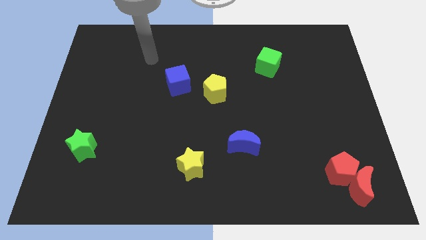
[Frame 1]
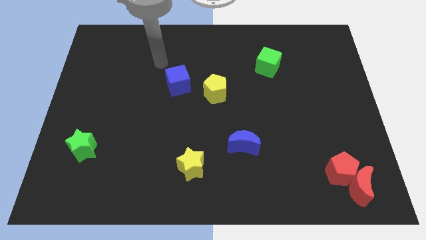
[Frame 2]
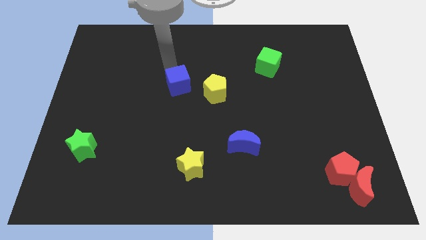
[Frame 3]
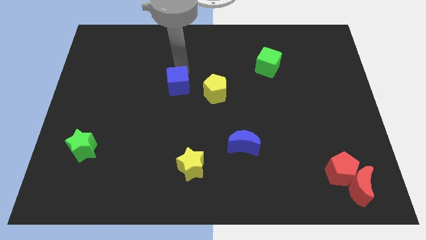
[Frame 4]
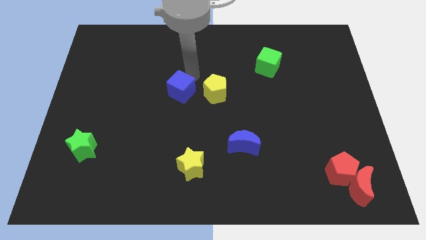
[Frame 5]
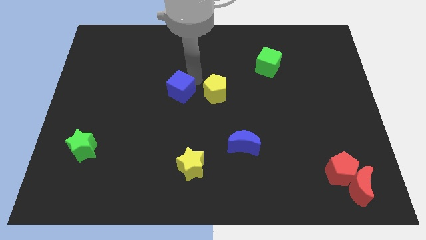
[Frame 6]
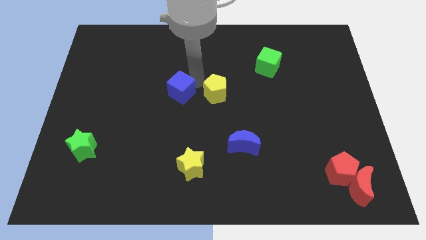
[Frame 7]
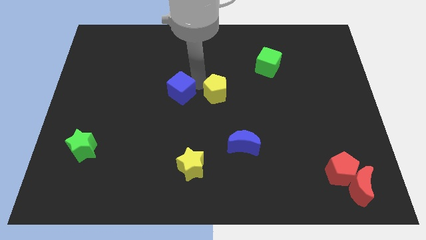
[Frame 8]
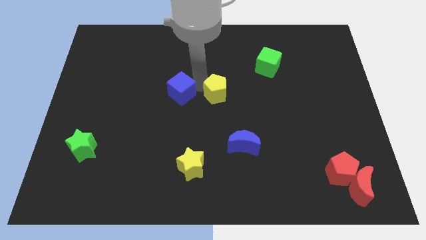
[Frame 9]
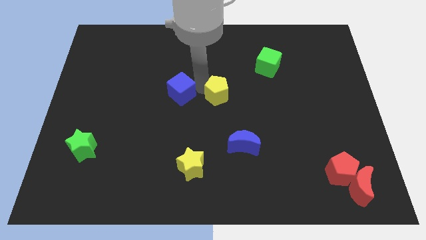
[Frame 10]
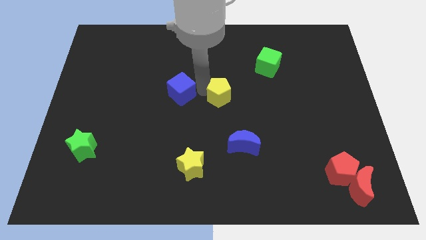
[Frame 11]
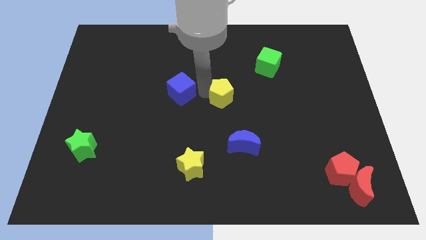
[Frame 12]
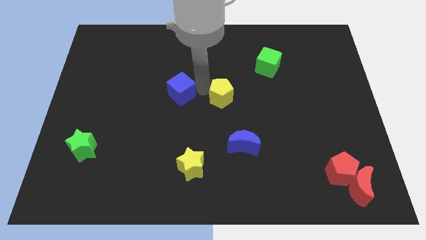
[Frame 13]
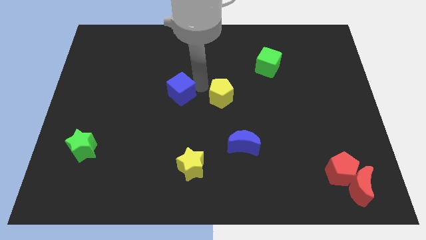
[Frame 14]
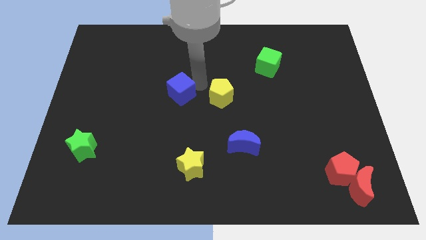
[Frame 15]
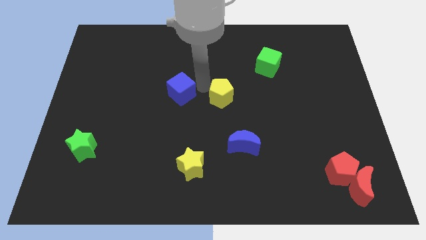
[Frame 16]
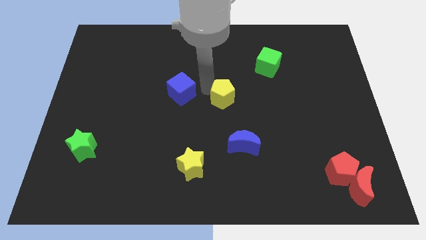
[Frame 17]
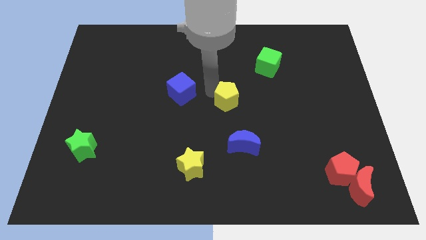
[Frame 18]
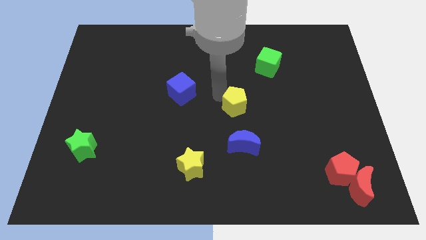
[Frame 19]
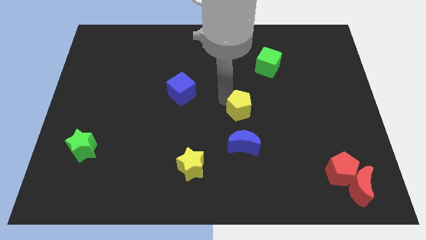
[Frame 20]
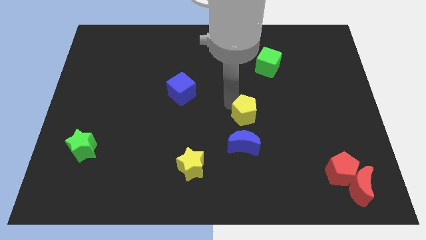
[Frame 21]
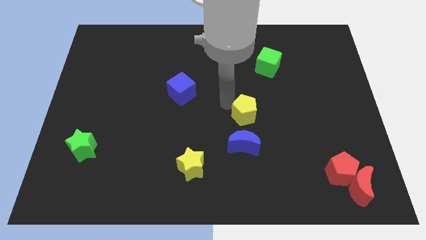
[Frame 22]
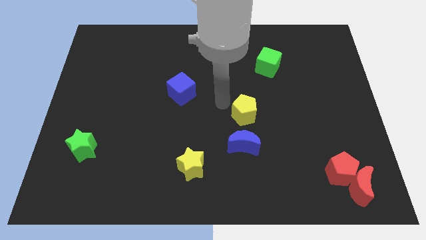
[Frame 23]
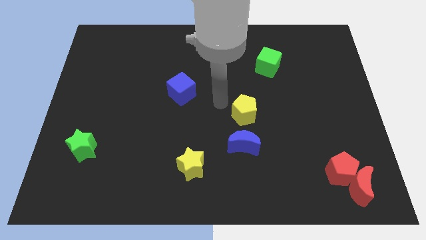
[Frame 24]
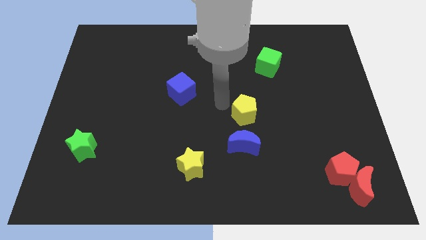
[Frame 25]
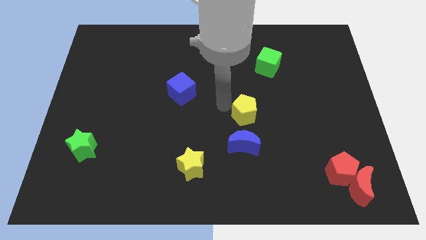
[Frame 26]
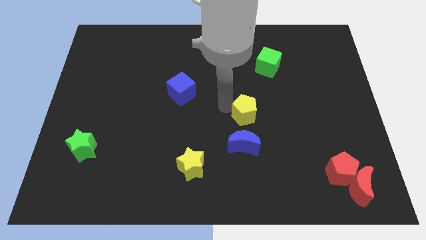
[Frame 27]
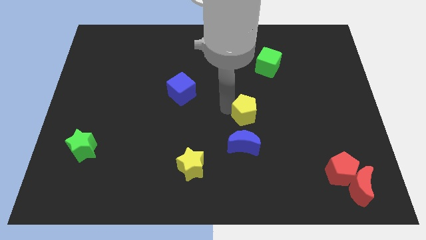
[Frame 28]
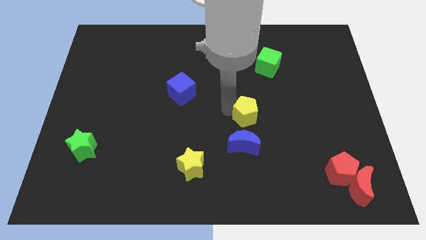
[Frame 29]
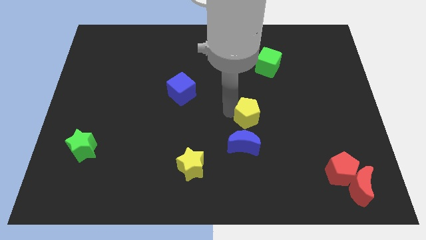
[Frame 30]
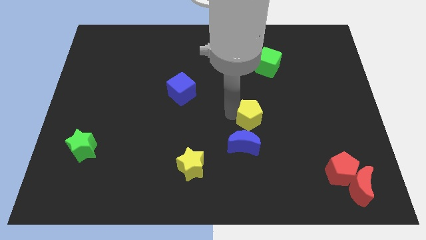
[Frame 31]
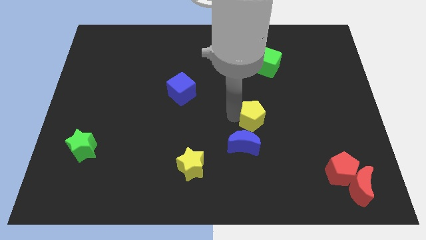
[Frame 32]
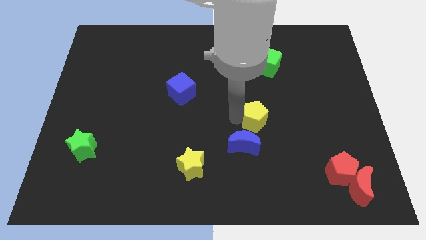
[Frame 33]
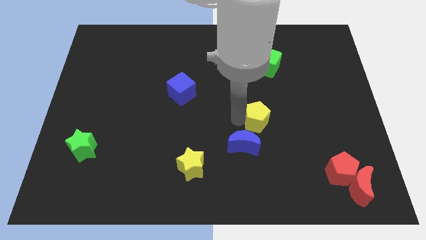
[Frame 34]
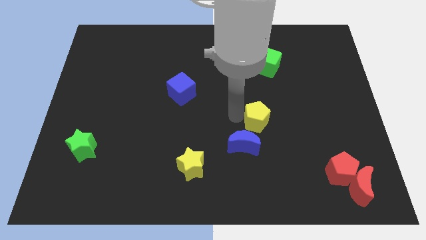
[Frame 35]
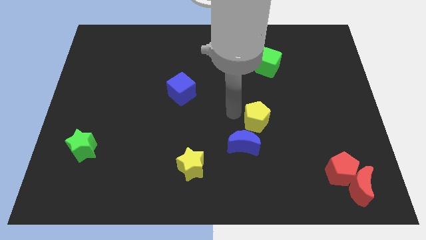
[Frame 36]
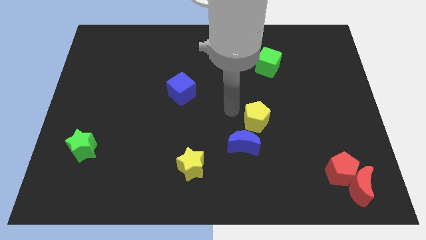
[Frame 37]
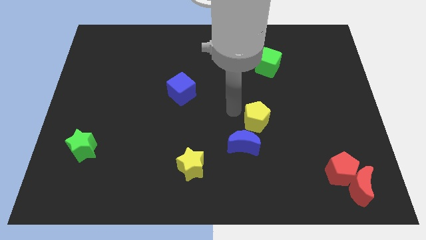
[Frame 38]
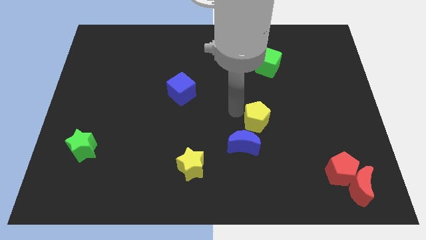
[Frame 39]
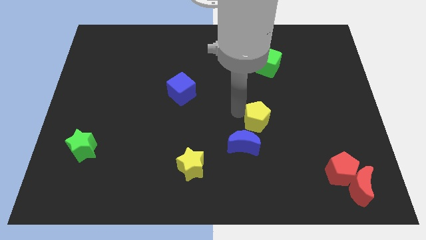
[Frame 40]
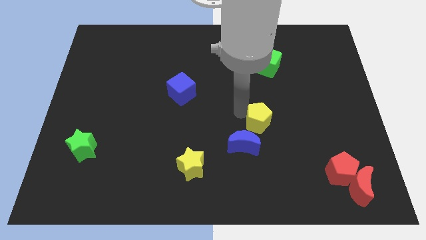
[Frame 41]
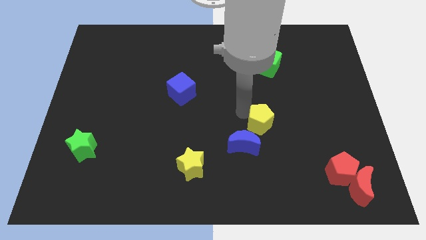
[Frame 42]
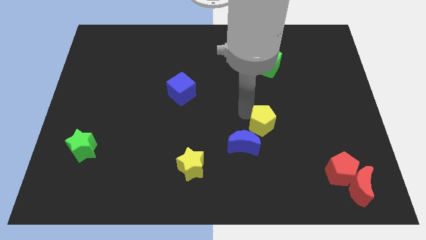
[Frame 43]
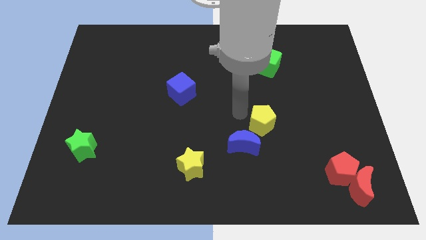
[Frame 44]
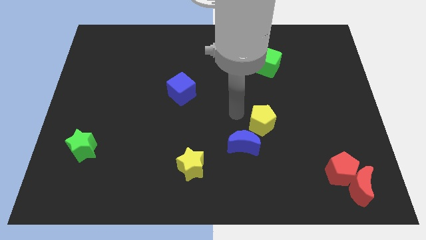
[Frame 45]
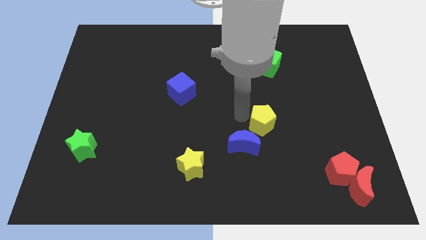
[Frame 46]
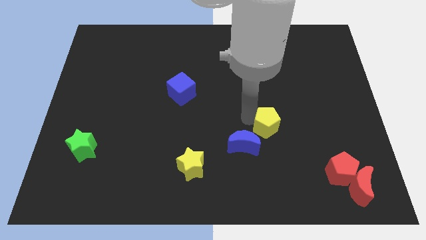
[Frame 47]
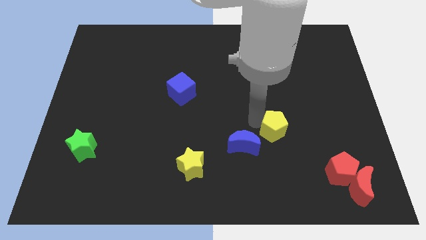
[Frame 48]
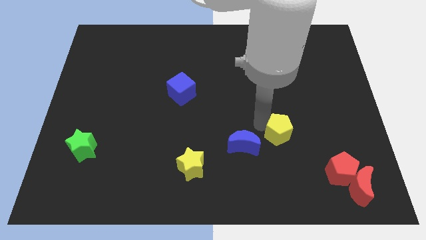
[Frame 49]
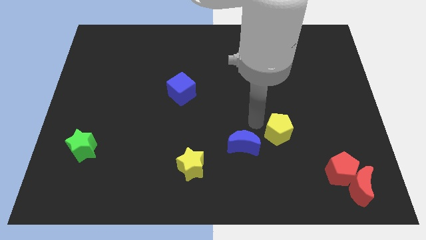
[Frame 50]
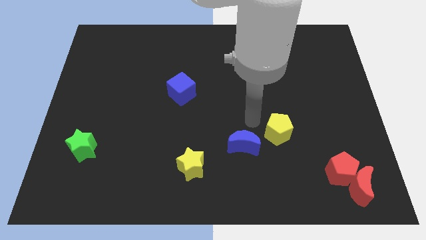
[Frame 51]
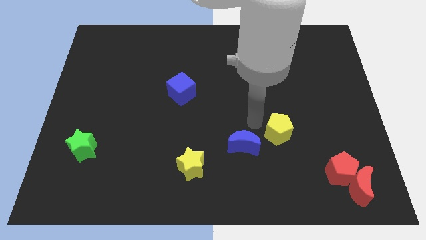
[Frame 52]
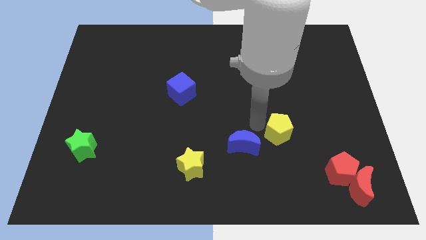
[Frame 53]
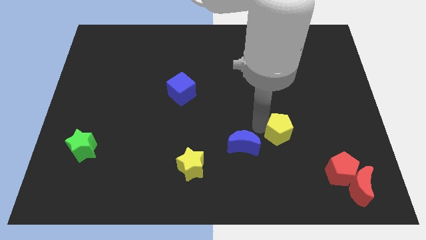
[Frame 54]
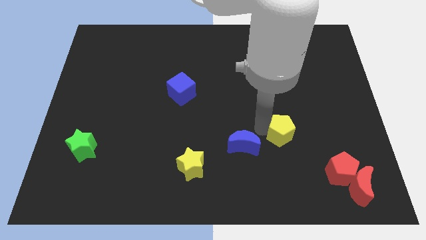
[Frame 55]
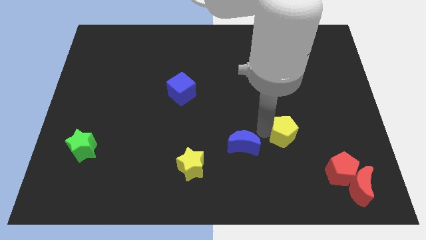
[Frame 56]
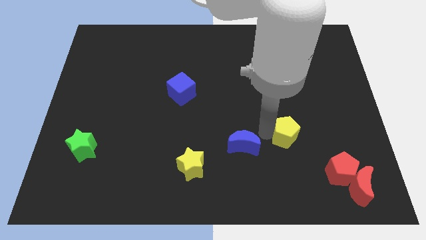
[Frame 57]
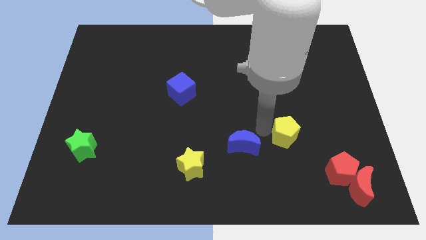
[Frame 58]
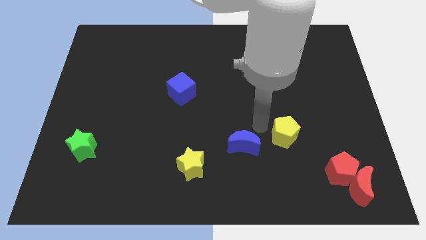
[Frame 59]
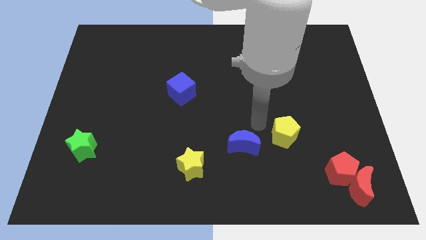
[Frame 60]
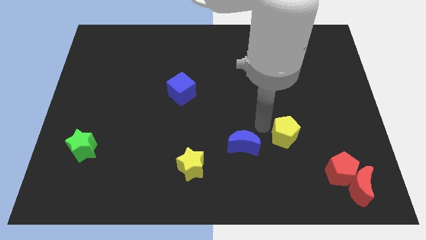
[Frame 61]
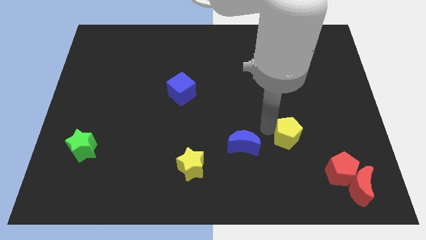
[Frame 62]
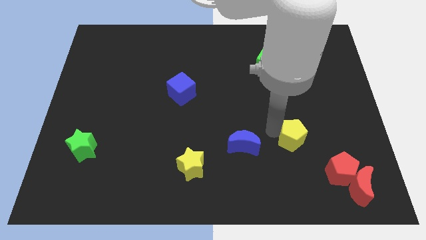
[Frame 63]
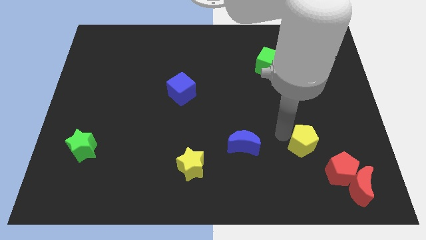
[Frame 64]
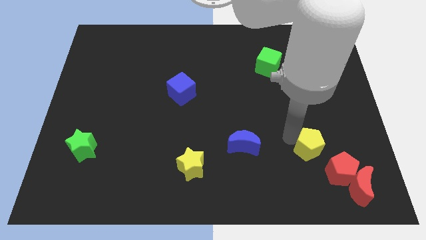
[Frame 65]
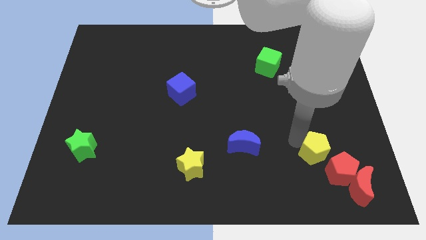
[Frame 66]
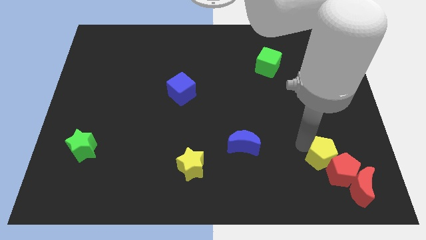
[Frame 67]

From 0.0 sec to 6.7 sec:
push the yellow pentagon to the red pentagon

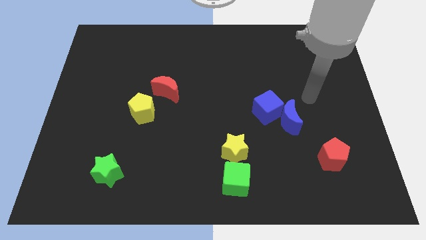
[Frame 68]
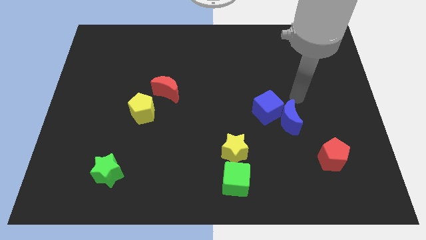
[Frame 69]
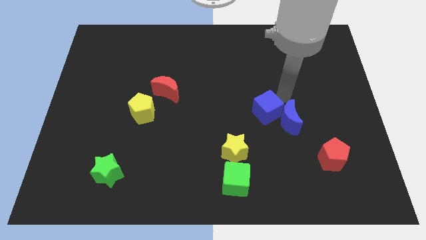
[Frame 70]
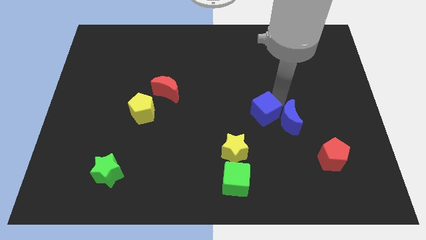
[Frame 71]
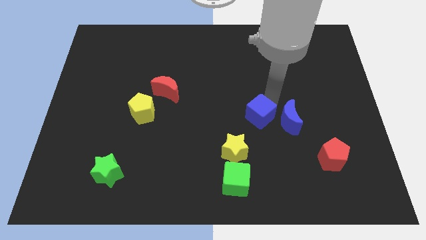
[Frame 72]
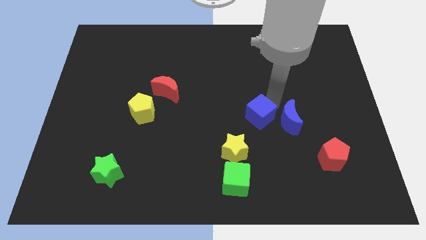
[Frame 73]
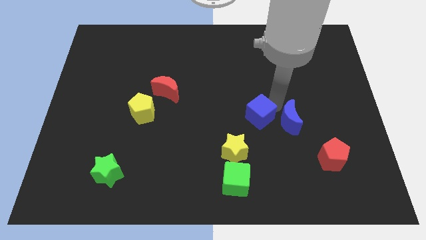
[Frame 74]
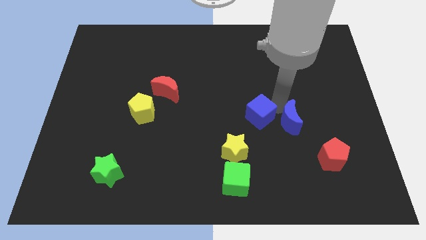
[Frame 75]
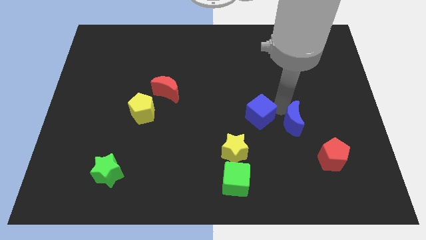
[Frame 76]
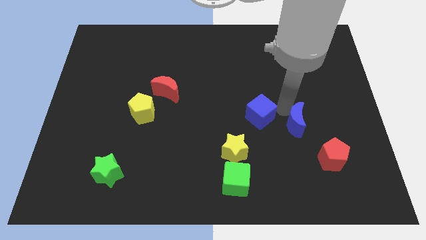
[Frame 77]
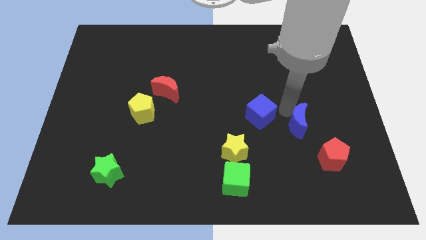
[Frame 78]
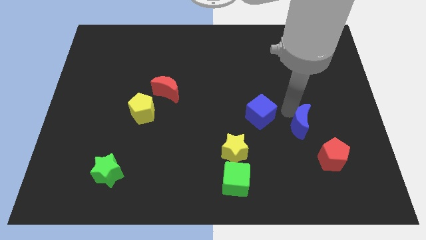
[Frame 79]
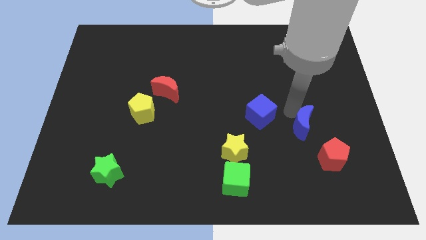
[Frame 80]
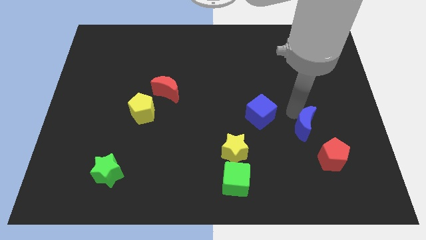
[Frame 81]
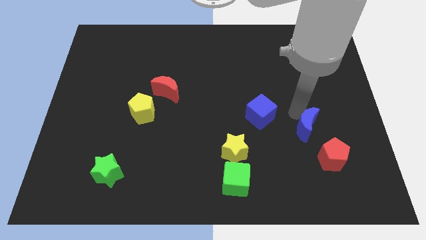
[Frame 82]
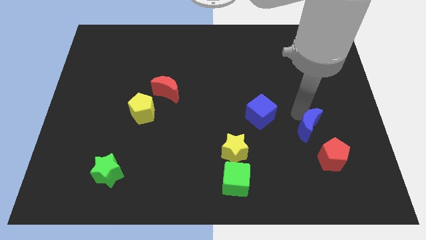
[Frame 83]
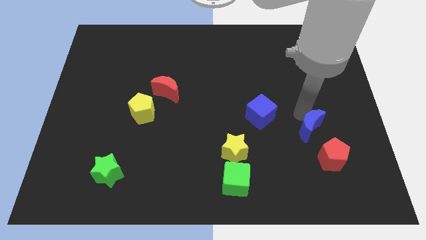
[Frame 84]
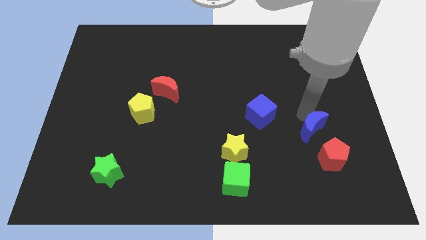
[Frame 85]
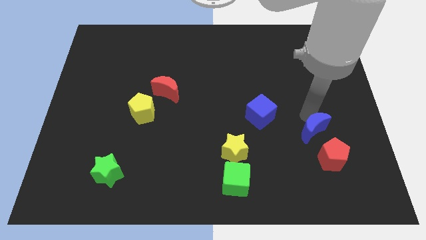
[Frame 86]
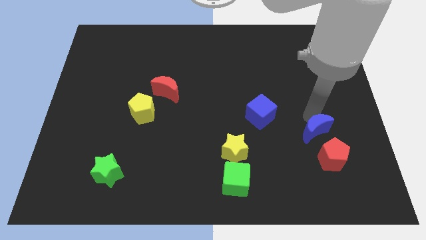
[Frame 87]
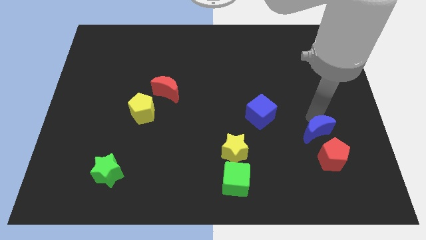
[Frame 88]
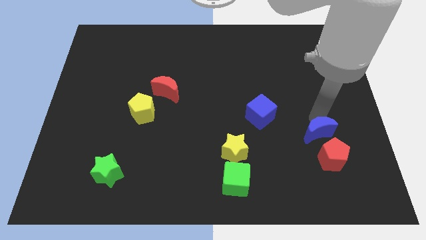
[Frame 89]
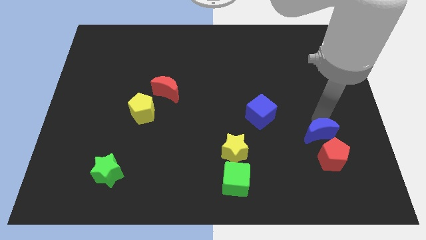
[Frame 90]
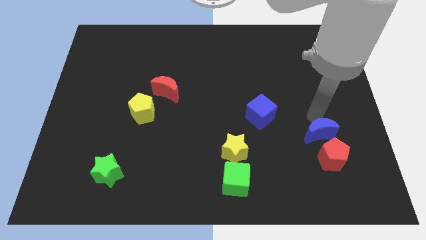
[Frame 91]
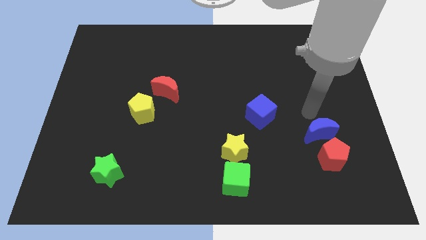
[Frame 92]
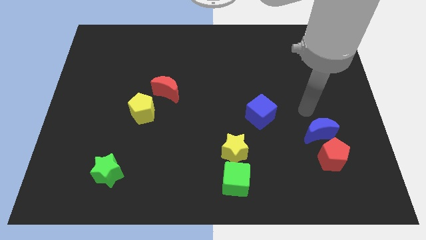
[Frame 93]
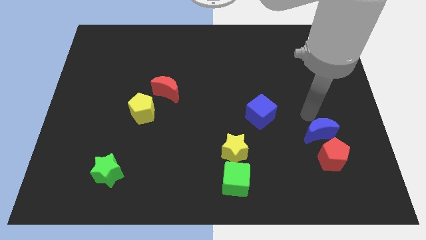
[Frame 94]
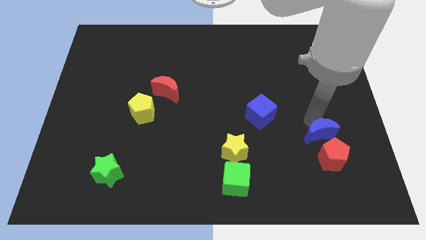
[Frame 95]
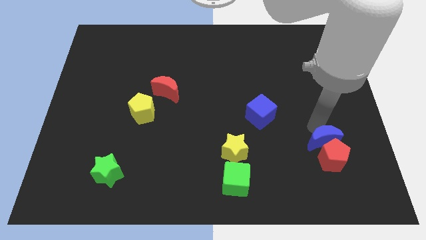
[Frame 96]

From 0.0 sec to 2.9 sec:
put the blue moon to the red pentagon
